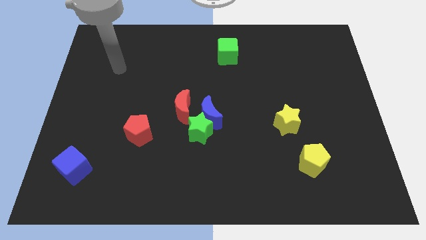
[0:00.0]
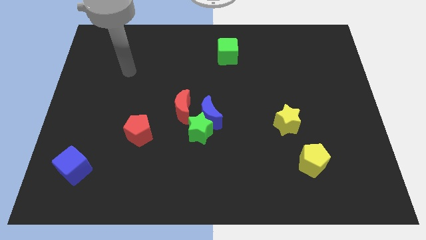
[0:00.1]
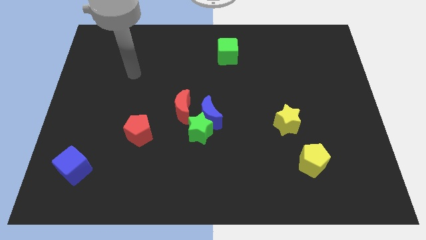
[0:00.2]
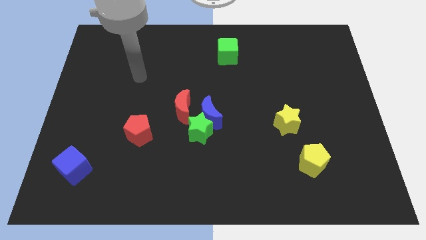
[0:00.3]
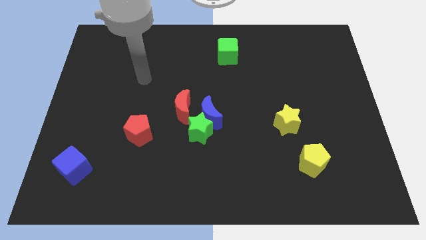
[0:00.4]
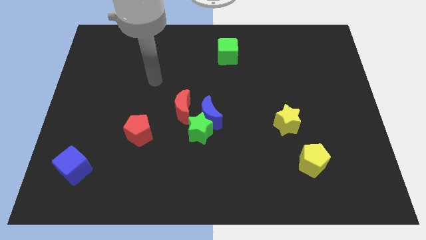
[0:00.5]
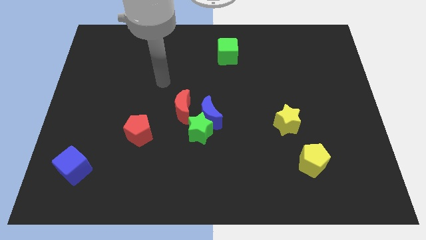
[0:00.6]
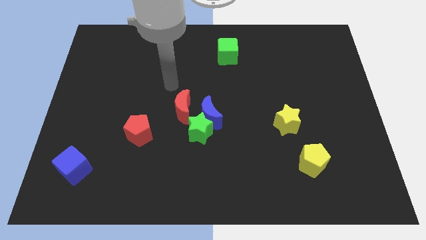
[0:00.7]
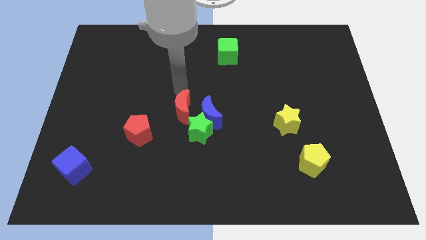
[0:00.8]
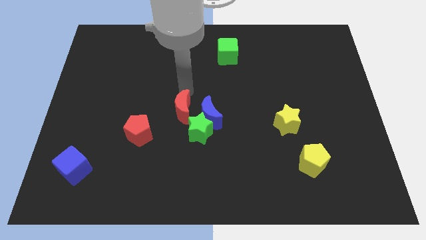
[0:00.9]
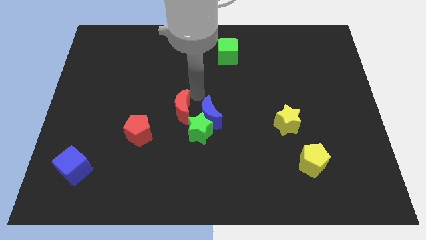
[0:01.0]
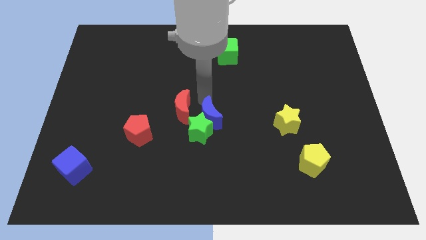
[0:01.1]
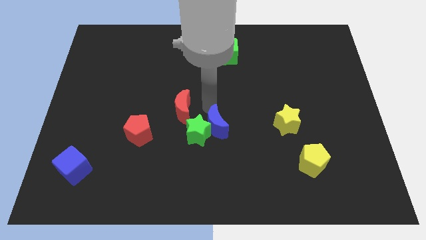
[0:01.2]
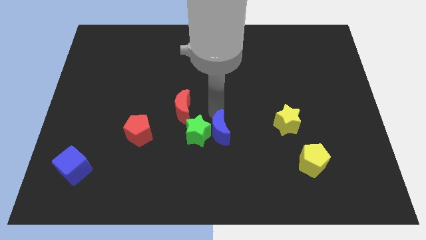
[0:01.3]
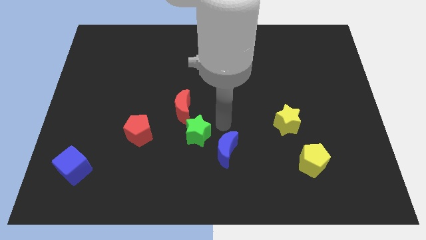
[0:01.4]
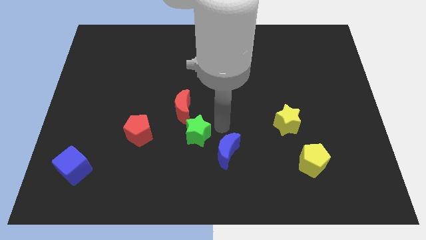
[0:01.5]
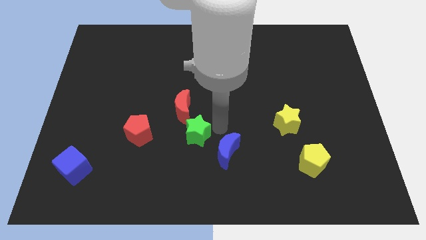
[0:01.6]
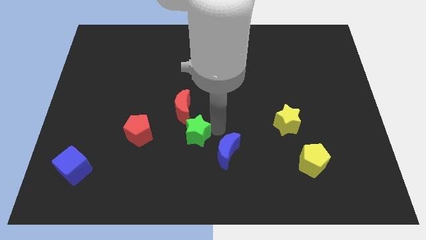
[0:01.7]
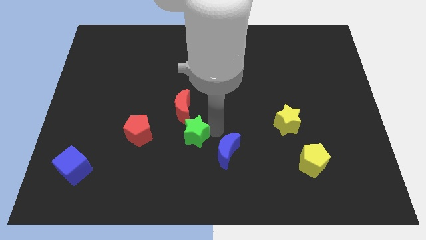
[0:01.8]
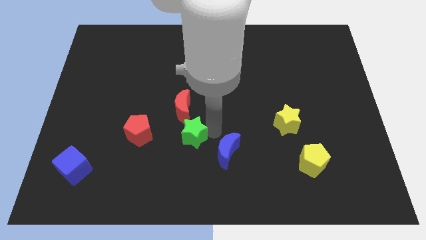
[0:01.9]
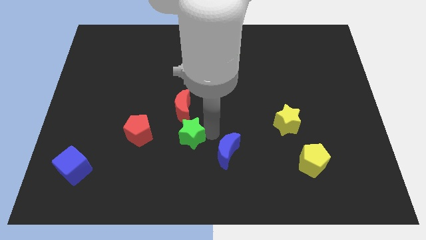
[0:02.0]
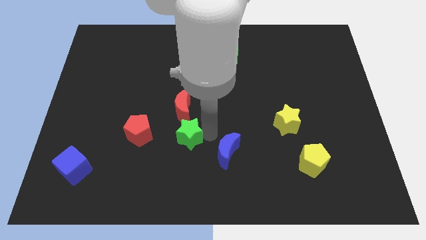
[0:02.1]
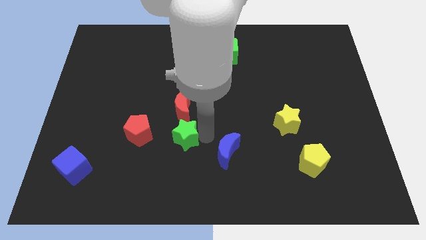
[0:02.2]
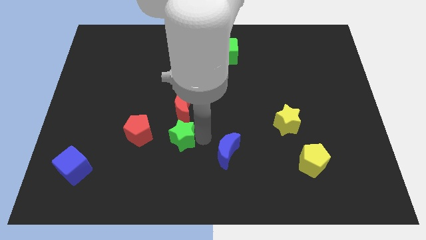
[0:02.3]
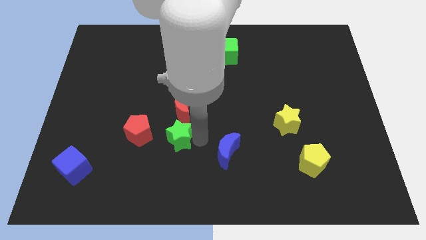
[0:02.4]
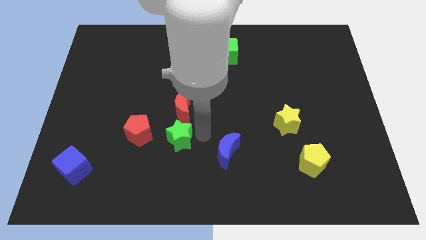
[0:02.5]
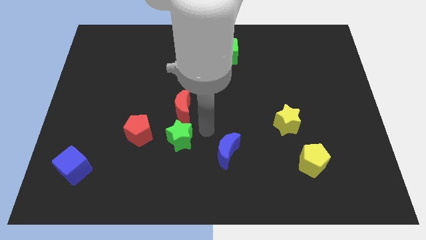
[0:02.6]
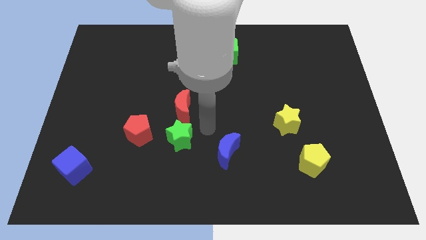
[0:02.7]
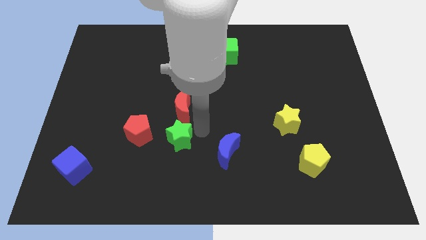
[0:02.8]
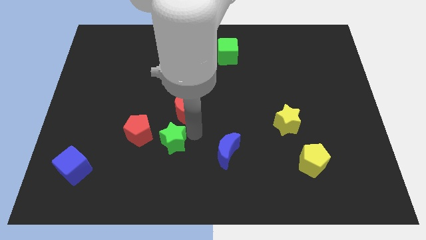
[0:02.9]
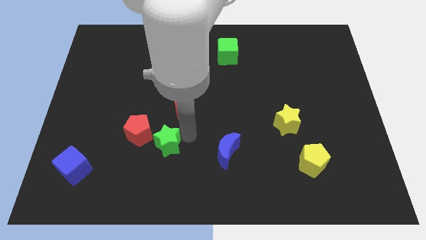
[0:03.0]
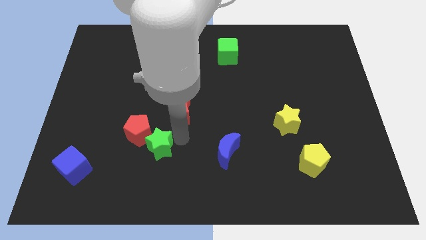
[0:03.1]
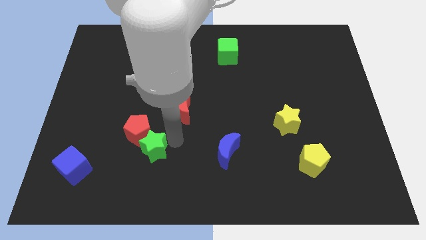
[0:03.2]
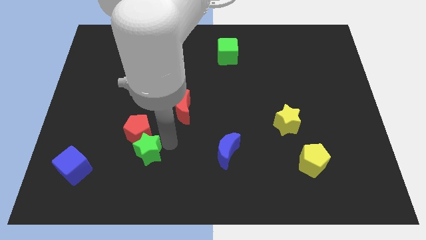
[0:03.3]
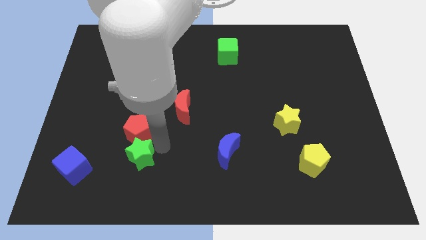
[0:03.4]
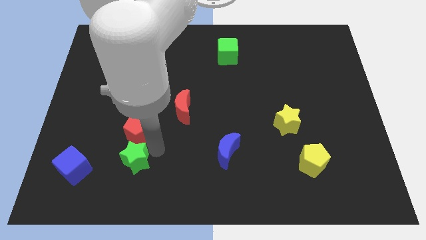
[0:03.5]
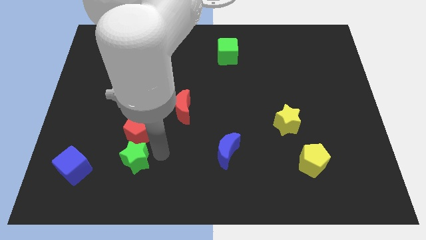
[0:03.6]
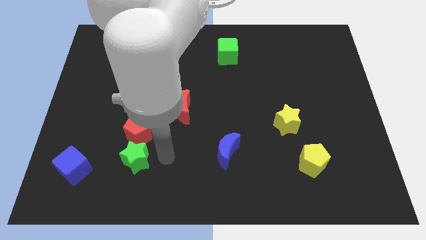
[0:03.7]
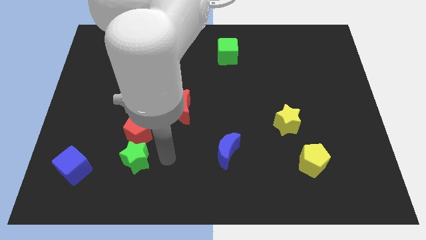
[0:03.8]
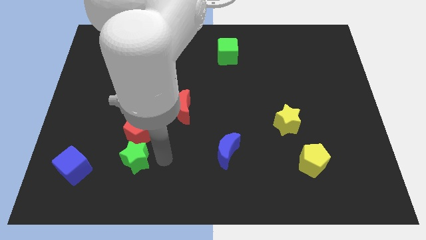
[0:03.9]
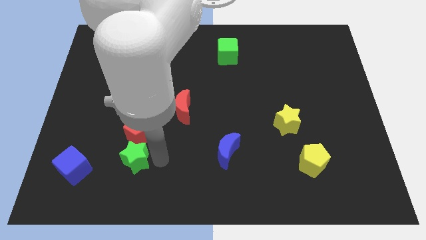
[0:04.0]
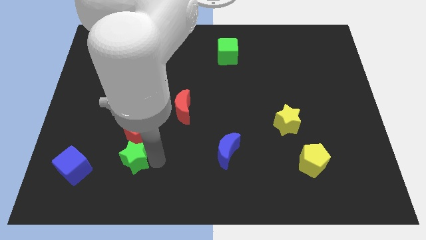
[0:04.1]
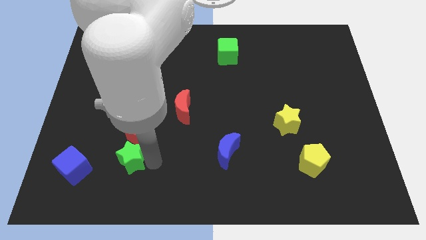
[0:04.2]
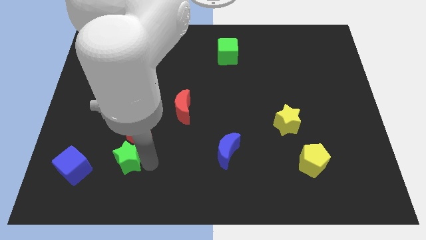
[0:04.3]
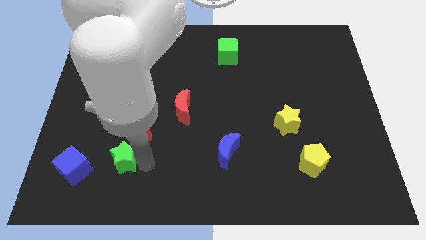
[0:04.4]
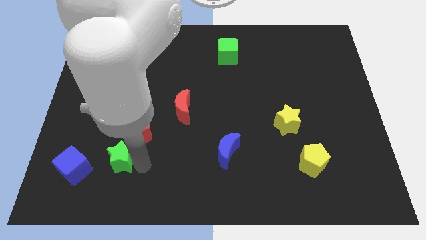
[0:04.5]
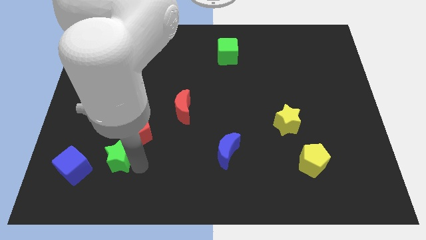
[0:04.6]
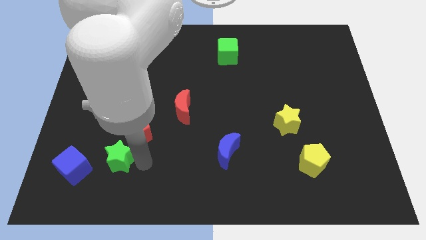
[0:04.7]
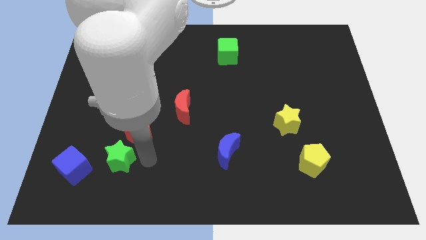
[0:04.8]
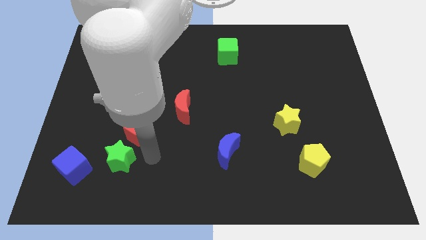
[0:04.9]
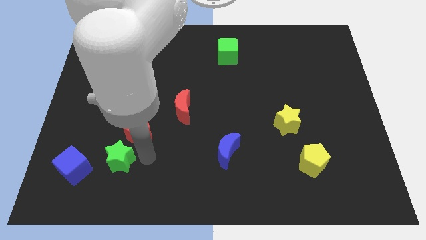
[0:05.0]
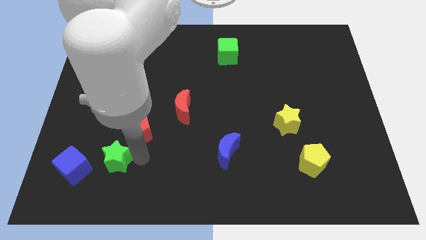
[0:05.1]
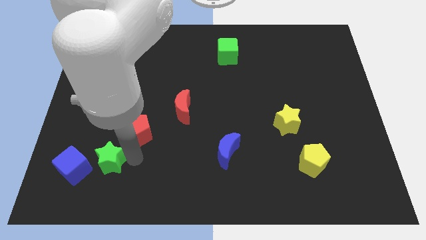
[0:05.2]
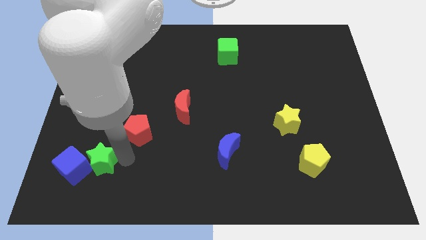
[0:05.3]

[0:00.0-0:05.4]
put the green star next to the blue cube

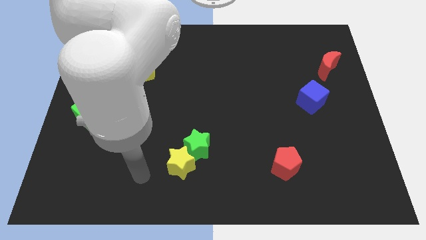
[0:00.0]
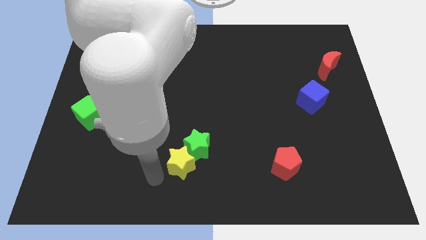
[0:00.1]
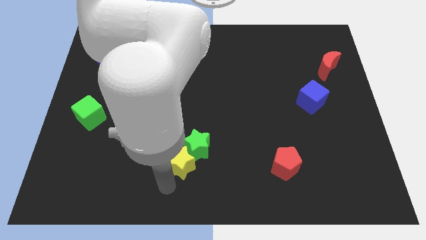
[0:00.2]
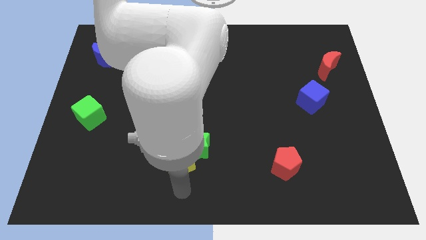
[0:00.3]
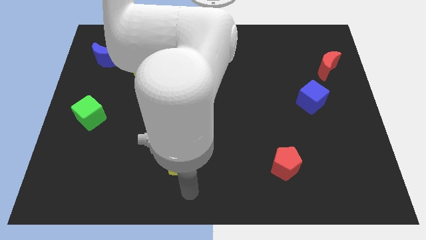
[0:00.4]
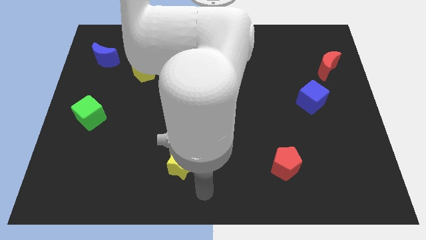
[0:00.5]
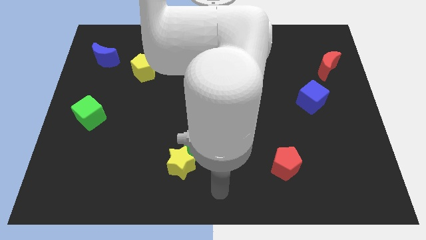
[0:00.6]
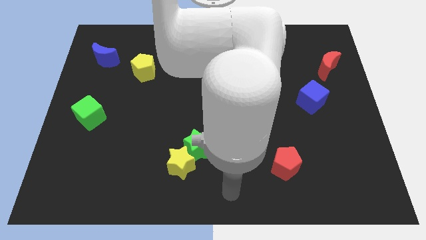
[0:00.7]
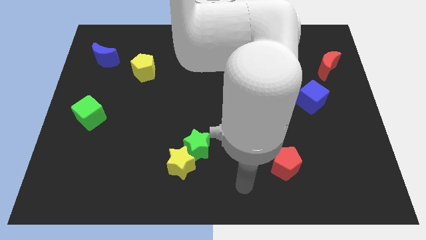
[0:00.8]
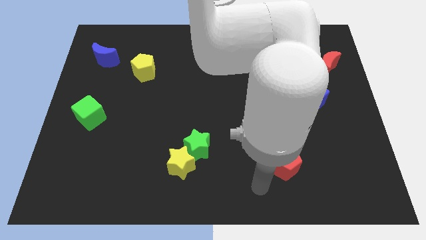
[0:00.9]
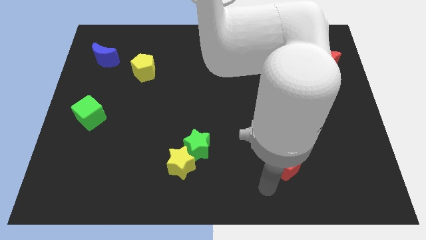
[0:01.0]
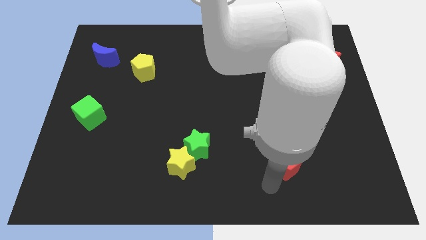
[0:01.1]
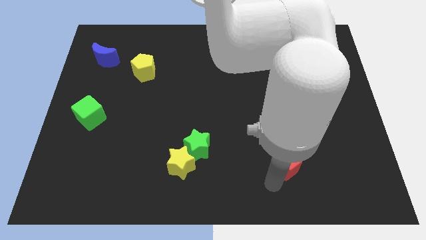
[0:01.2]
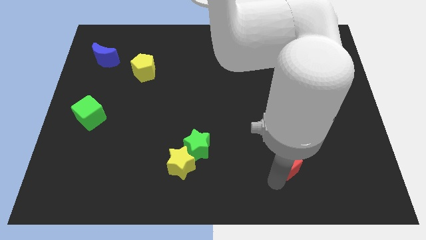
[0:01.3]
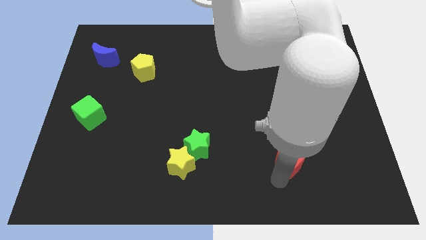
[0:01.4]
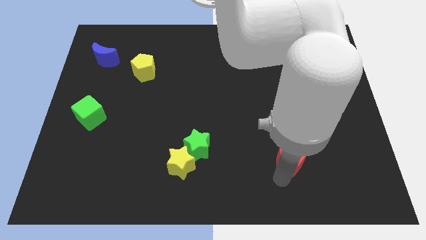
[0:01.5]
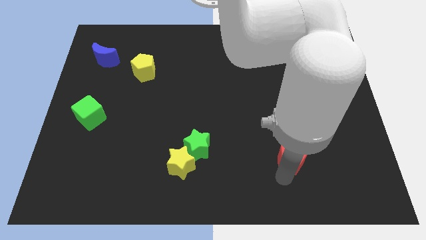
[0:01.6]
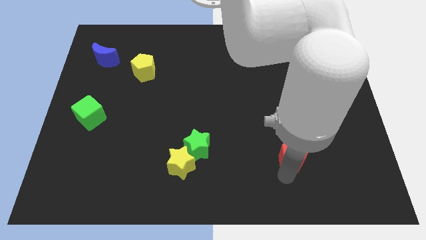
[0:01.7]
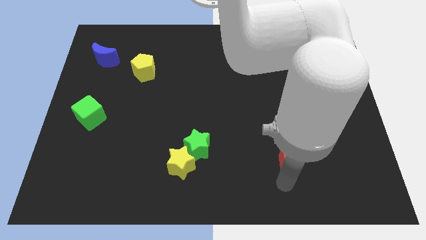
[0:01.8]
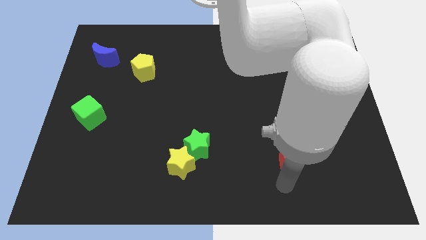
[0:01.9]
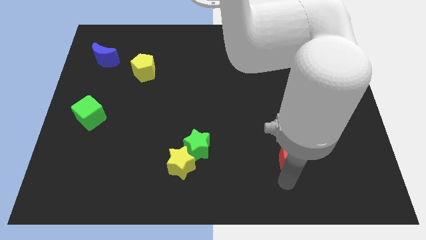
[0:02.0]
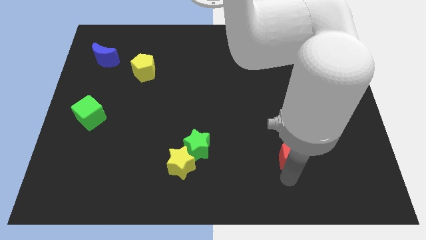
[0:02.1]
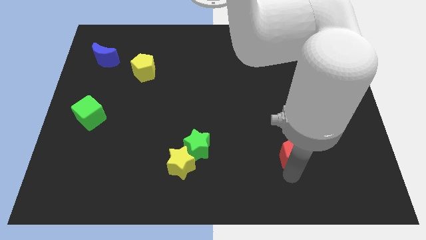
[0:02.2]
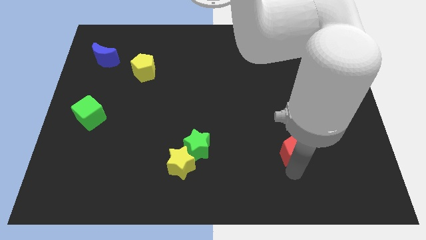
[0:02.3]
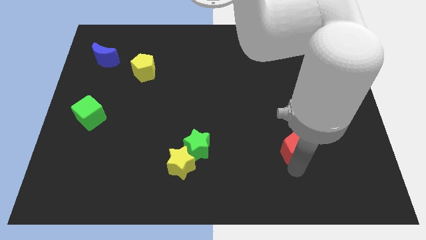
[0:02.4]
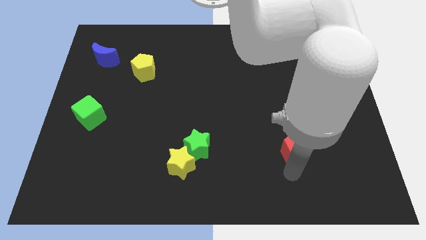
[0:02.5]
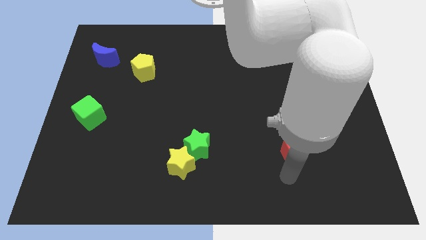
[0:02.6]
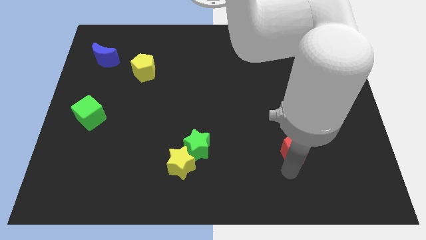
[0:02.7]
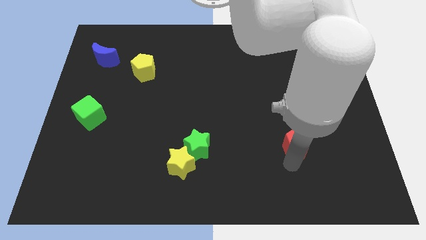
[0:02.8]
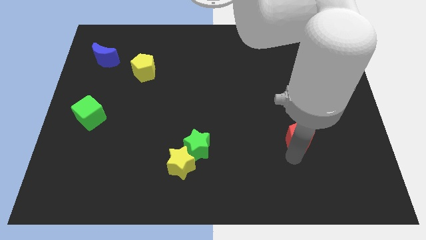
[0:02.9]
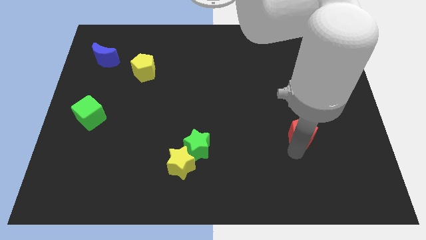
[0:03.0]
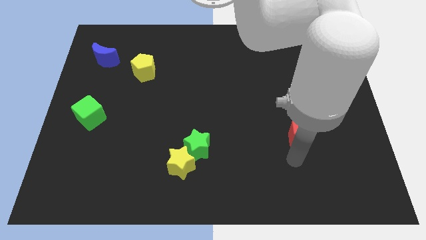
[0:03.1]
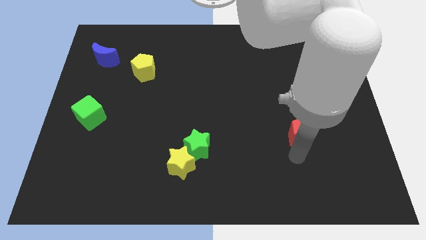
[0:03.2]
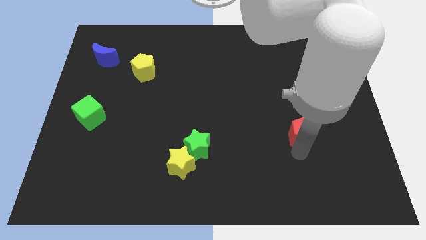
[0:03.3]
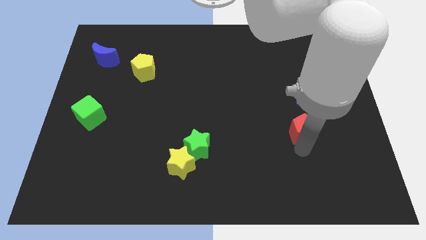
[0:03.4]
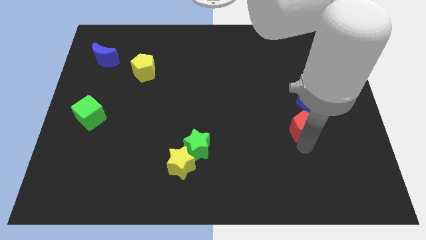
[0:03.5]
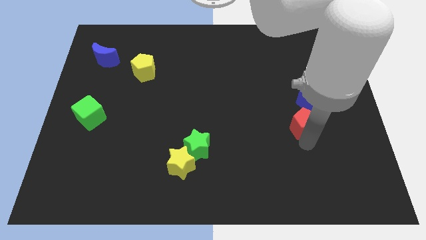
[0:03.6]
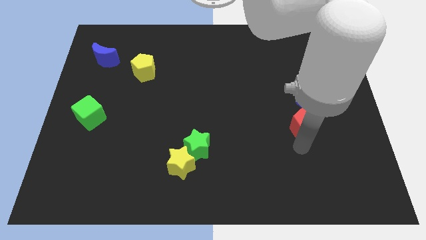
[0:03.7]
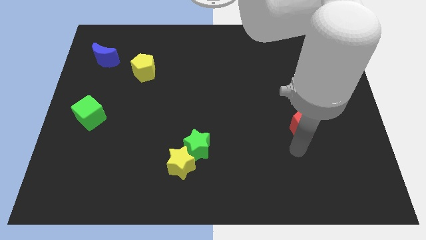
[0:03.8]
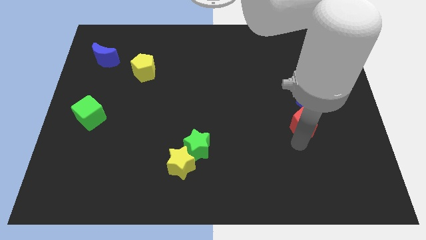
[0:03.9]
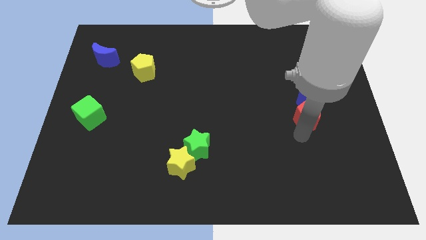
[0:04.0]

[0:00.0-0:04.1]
slide the red pentagon close to the blue cube
